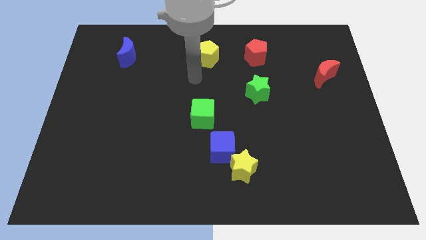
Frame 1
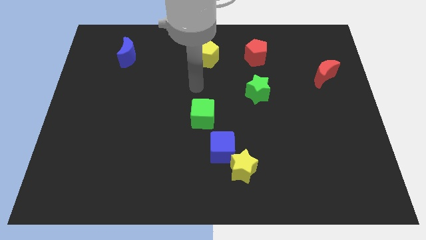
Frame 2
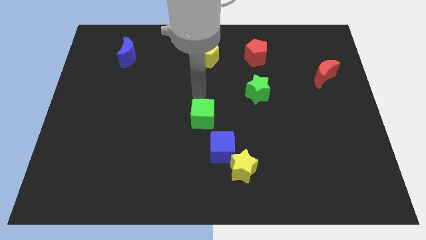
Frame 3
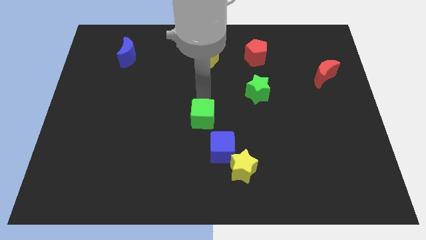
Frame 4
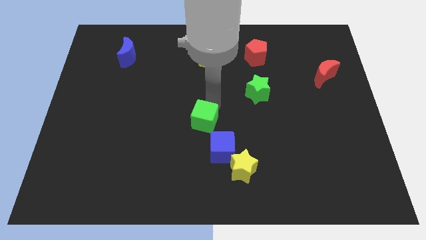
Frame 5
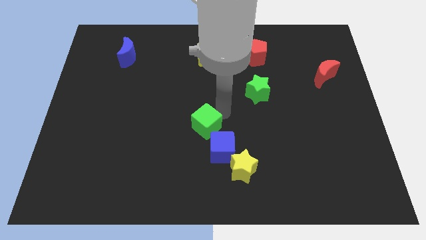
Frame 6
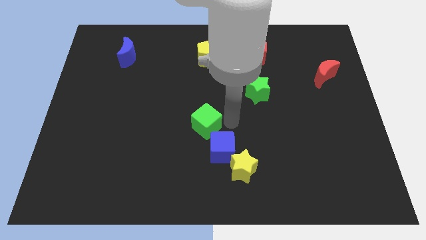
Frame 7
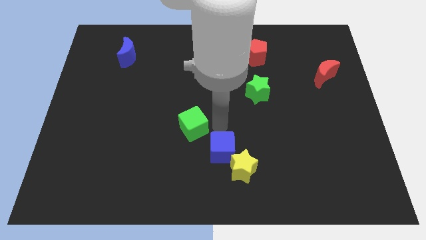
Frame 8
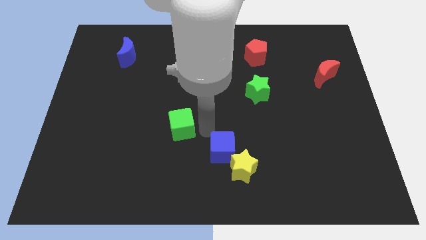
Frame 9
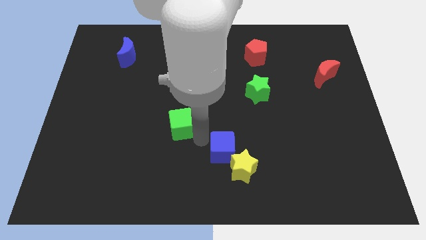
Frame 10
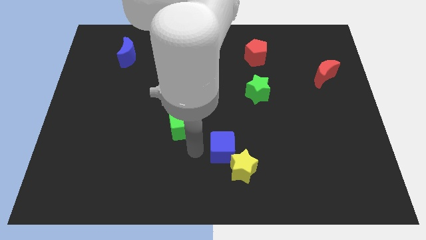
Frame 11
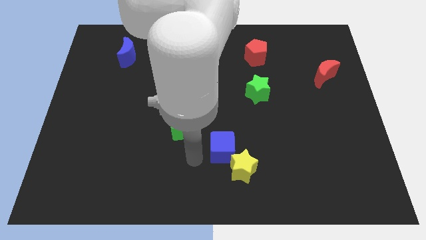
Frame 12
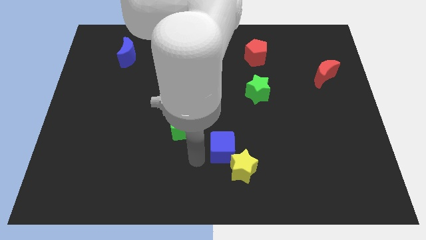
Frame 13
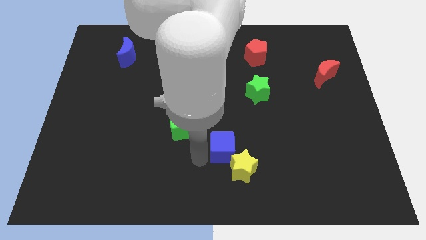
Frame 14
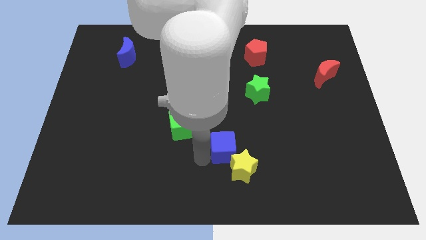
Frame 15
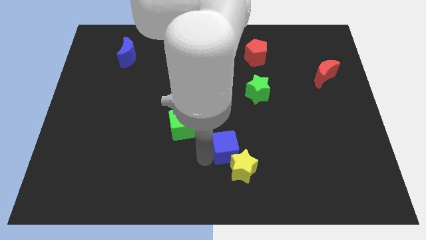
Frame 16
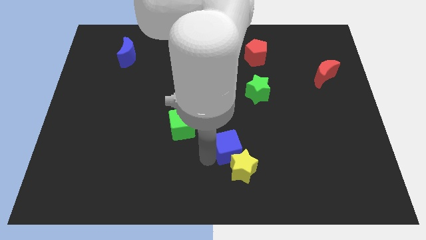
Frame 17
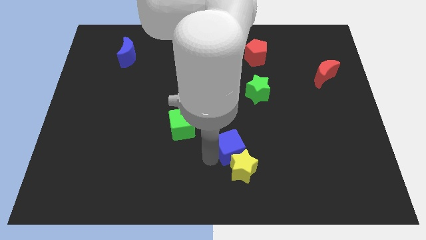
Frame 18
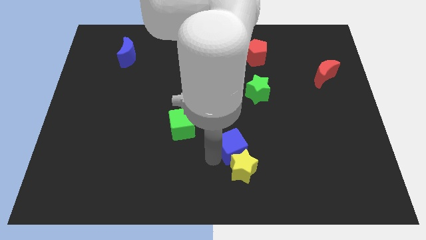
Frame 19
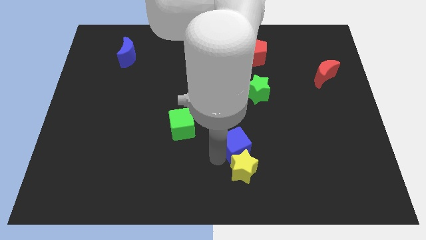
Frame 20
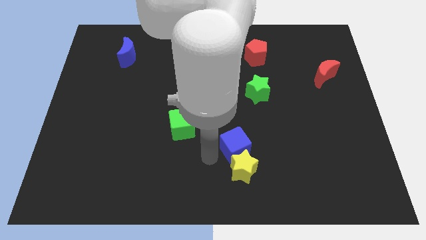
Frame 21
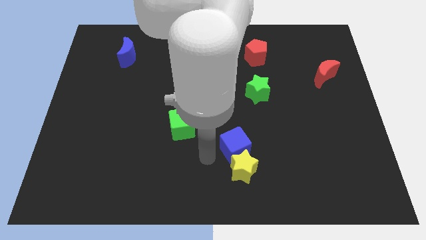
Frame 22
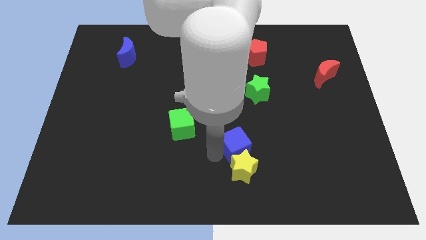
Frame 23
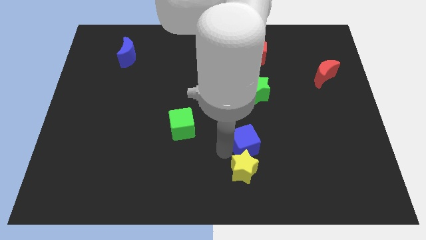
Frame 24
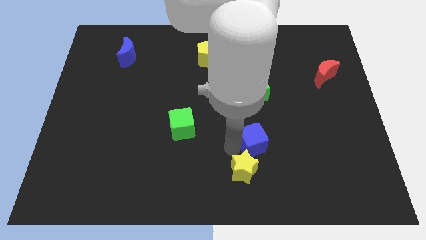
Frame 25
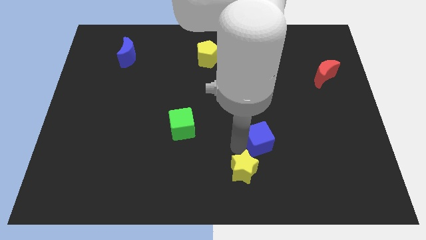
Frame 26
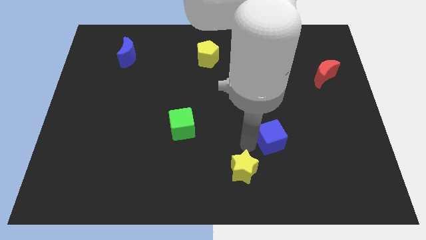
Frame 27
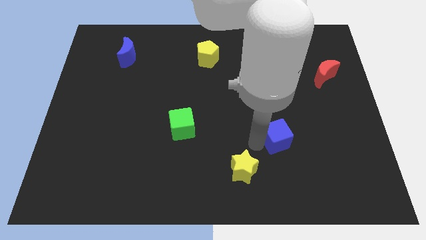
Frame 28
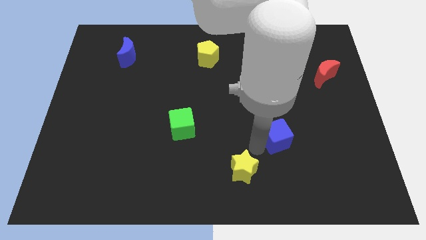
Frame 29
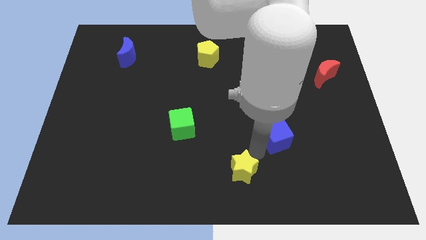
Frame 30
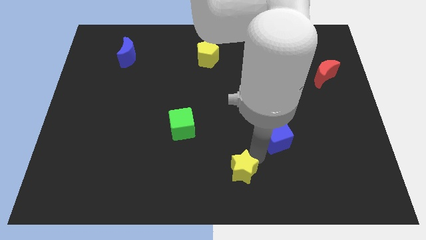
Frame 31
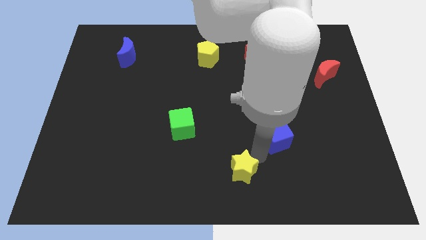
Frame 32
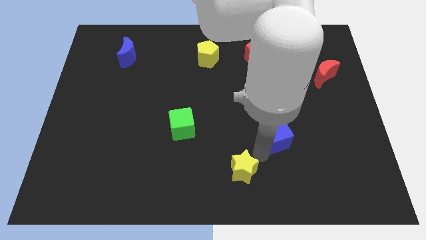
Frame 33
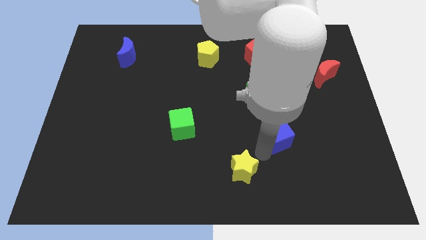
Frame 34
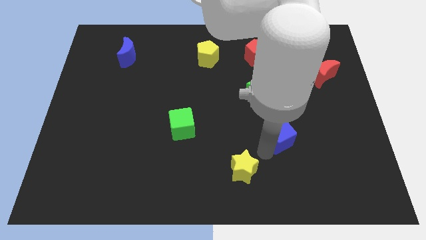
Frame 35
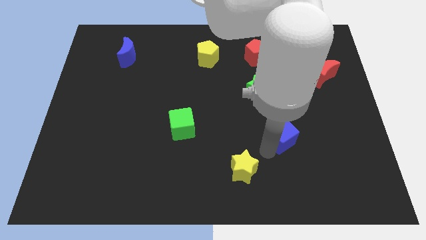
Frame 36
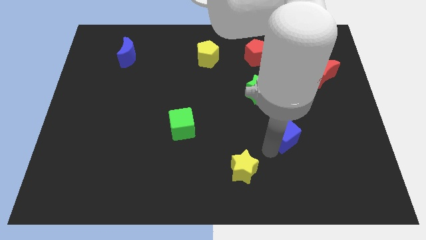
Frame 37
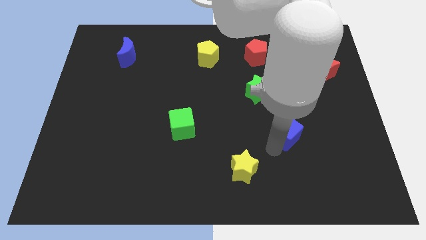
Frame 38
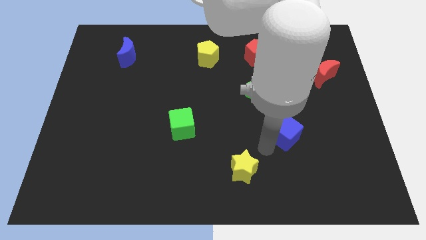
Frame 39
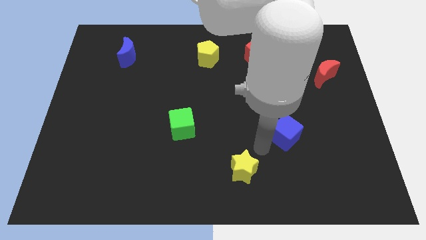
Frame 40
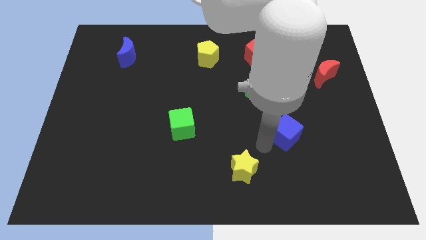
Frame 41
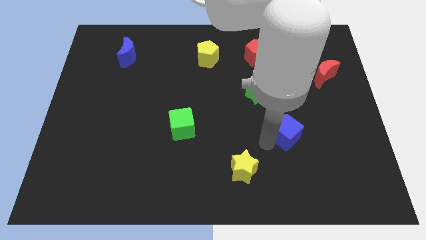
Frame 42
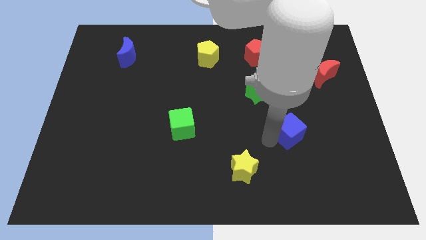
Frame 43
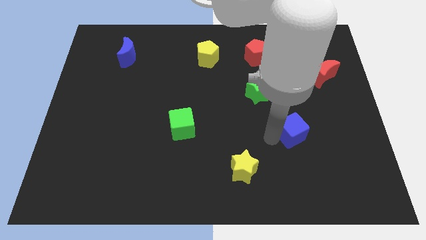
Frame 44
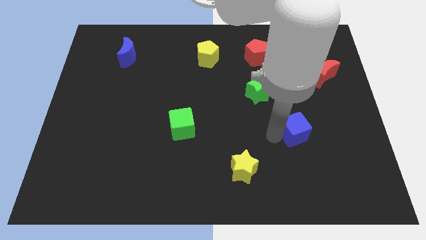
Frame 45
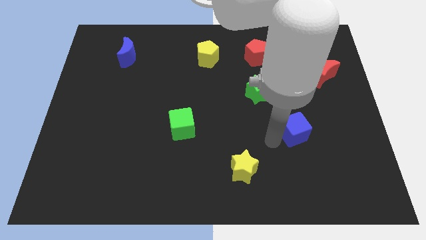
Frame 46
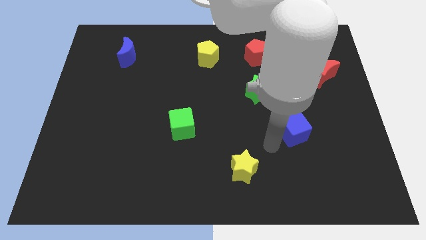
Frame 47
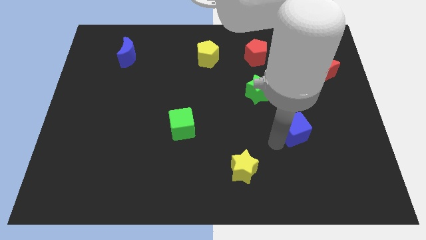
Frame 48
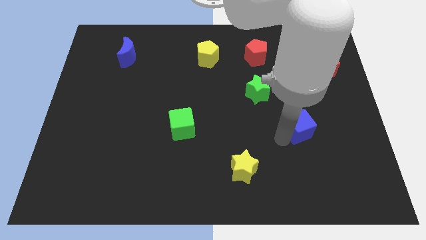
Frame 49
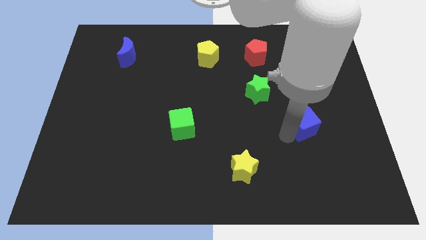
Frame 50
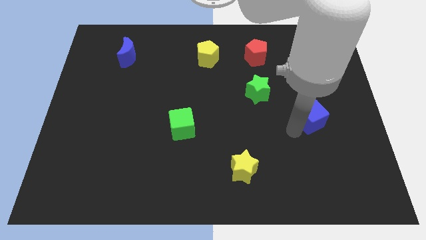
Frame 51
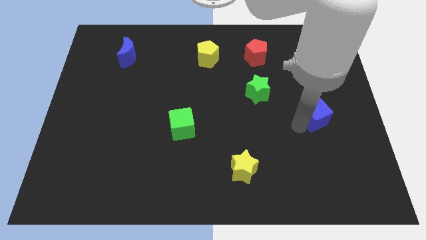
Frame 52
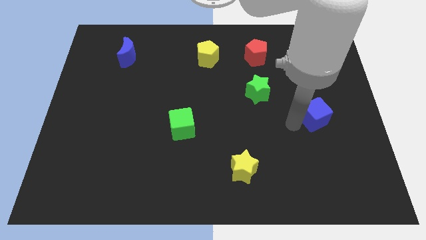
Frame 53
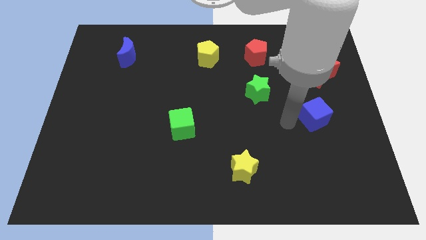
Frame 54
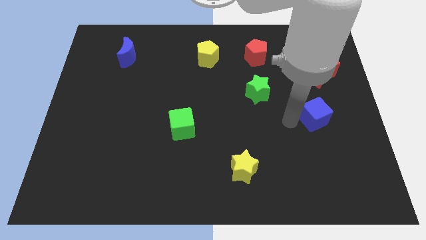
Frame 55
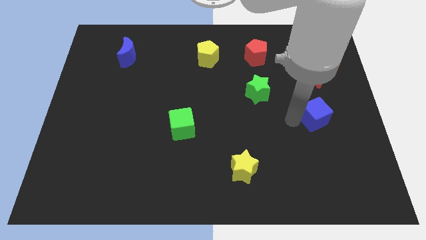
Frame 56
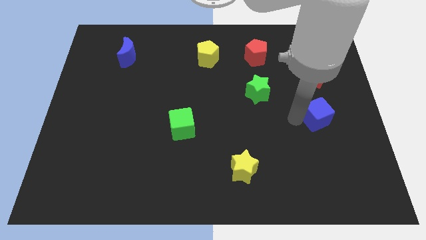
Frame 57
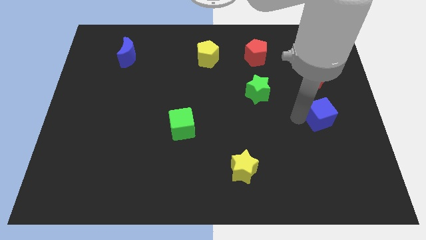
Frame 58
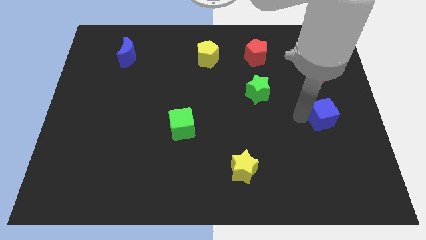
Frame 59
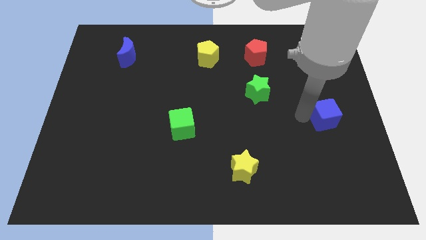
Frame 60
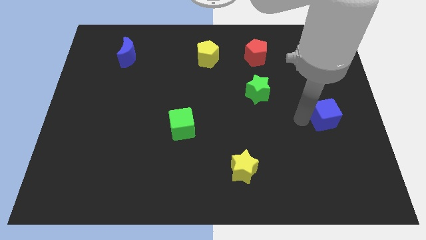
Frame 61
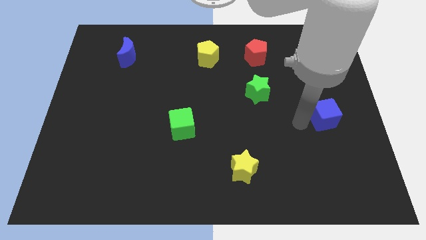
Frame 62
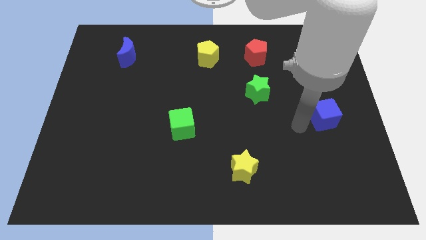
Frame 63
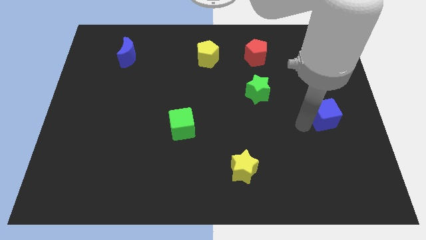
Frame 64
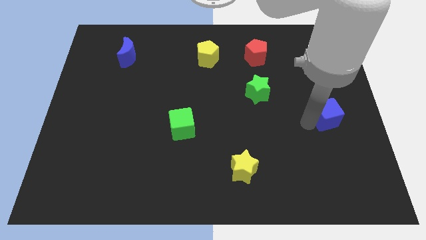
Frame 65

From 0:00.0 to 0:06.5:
move the blue cube to the right side of the board

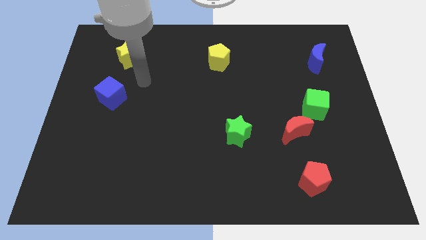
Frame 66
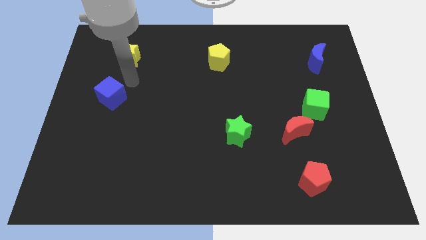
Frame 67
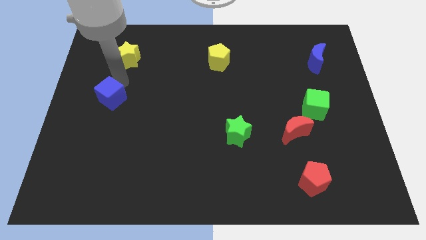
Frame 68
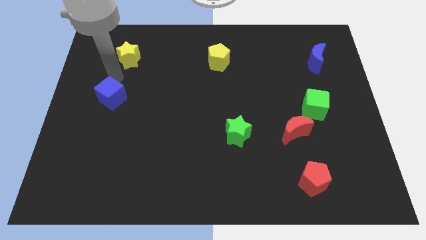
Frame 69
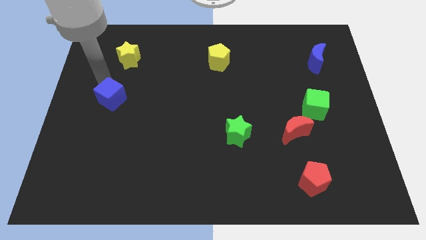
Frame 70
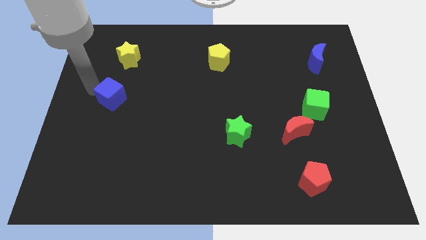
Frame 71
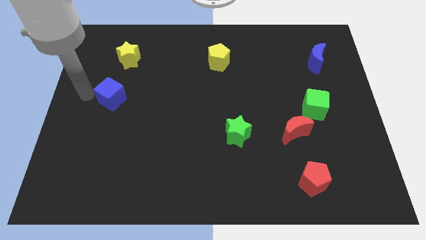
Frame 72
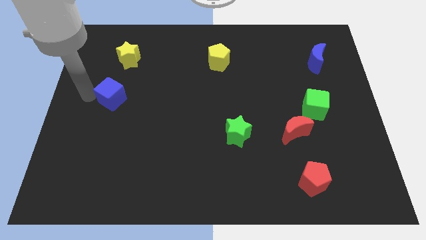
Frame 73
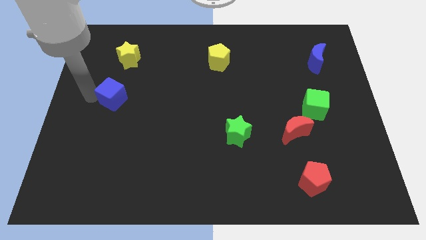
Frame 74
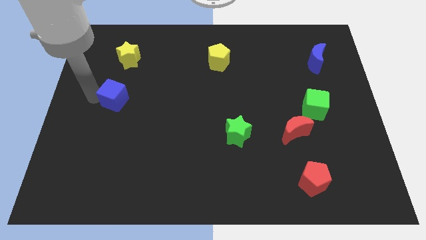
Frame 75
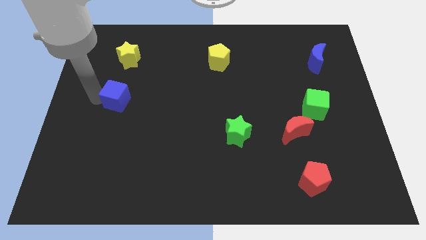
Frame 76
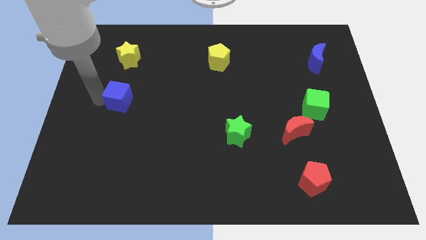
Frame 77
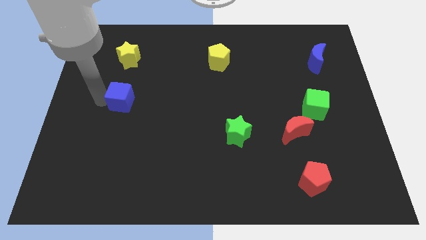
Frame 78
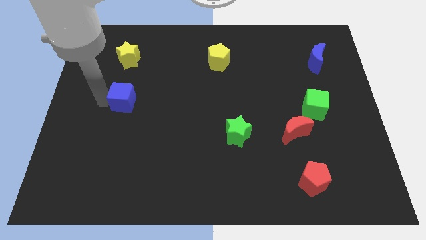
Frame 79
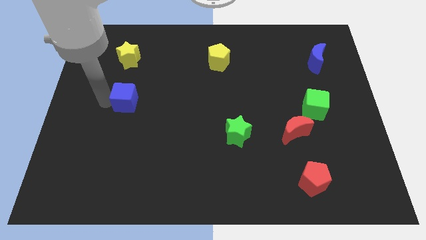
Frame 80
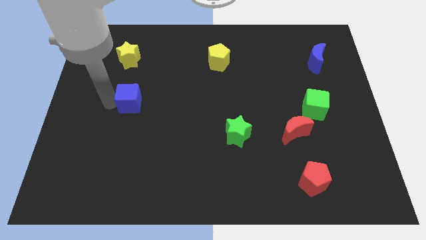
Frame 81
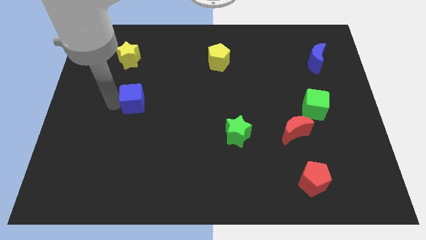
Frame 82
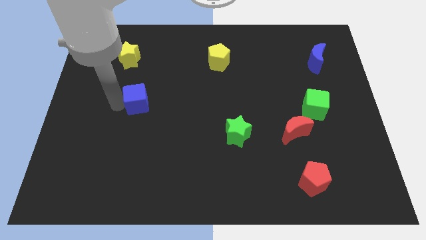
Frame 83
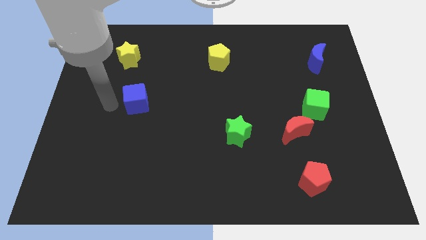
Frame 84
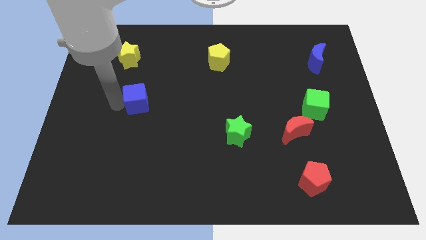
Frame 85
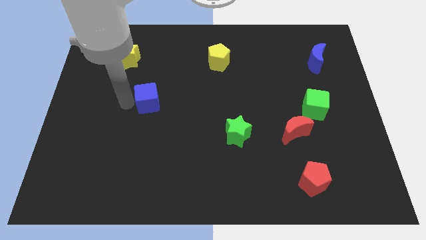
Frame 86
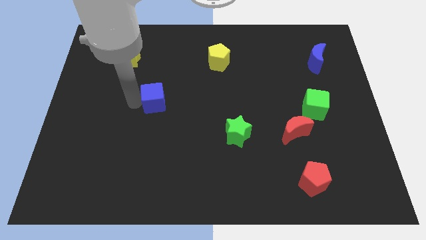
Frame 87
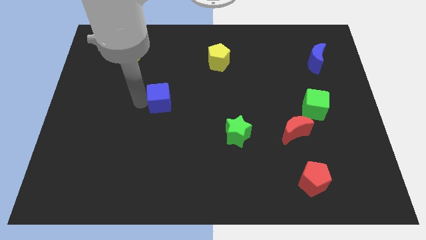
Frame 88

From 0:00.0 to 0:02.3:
put the blue cube to the middle
